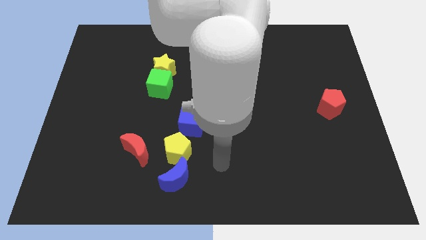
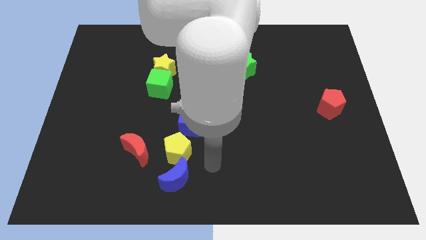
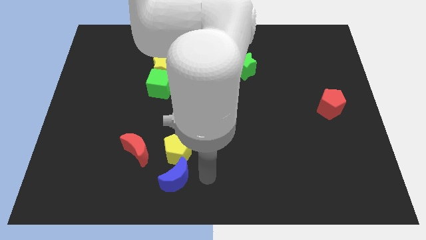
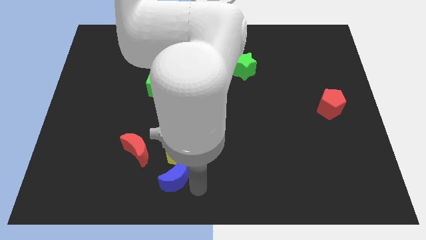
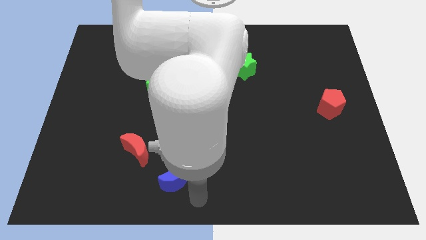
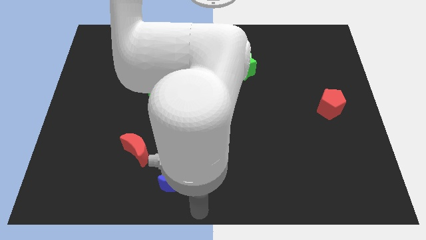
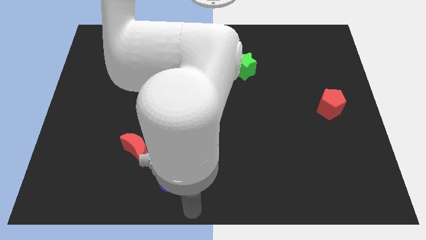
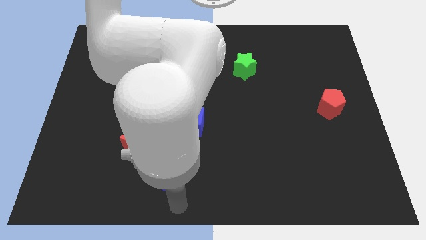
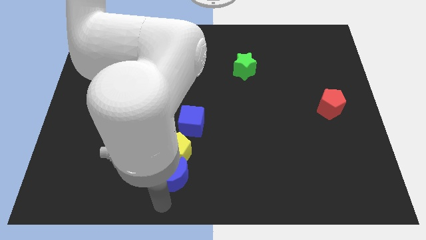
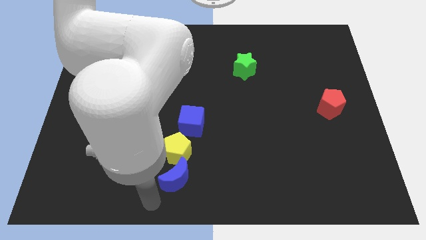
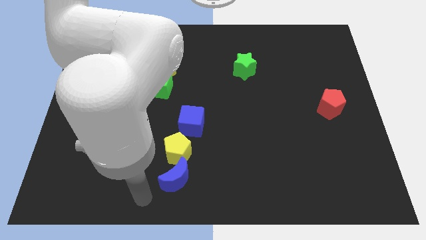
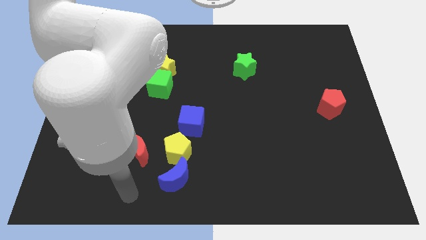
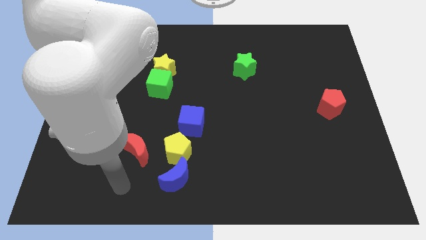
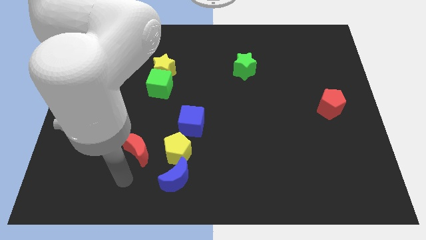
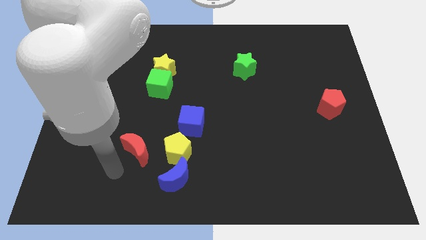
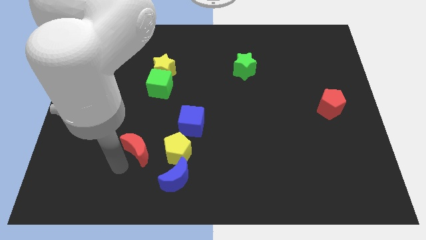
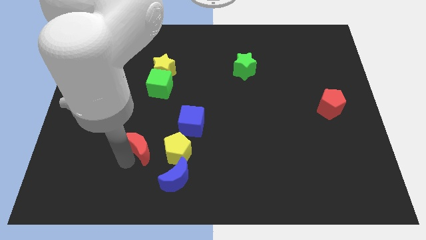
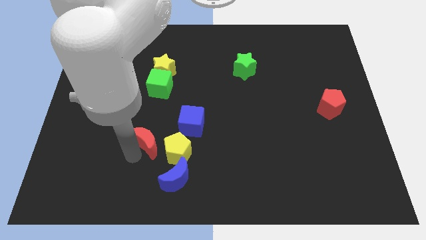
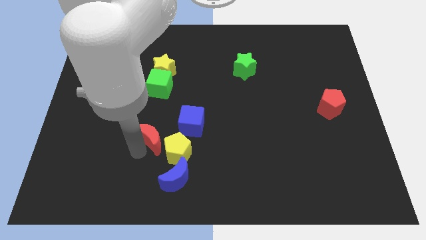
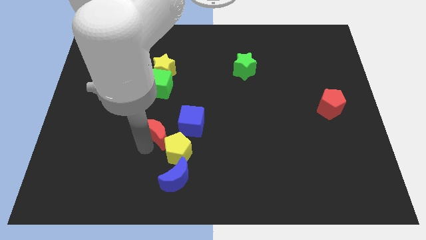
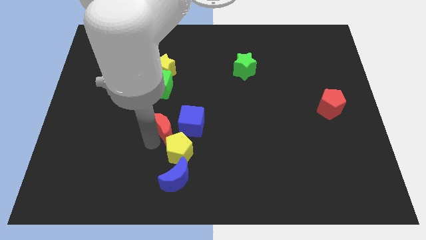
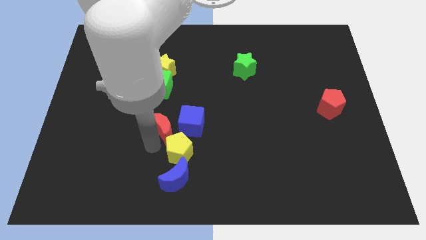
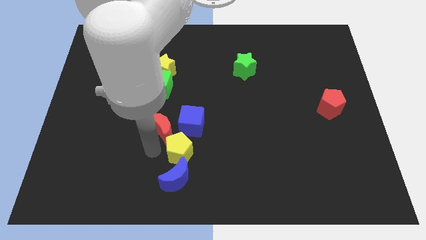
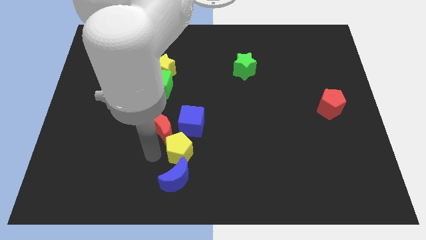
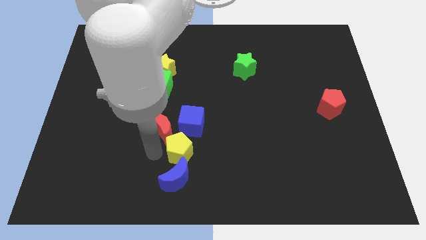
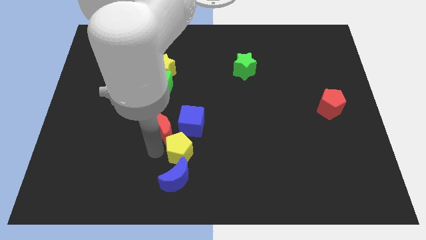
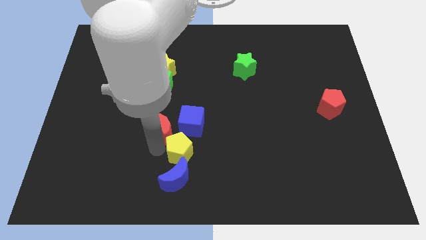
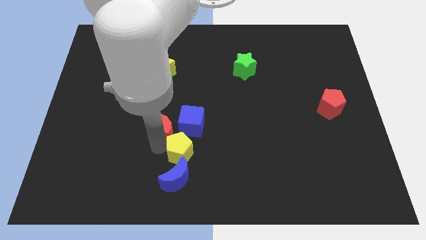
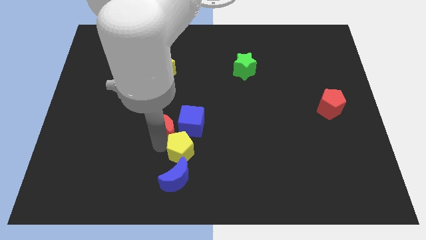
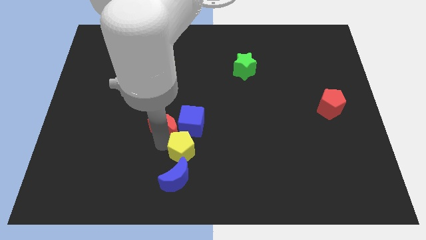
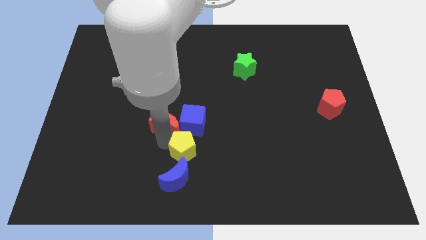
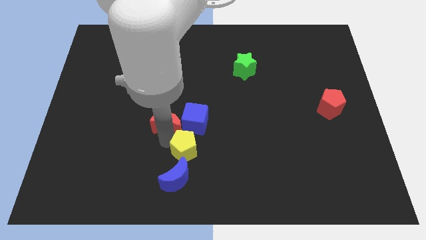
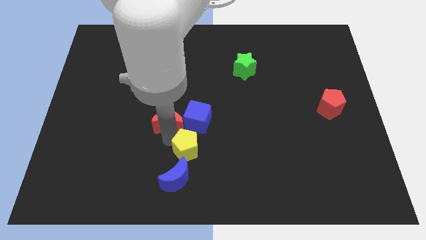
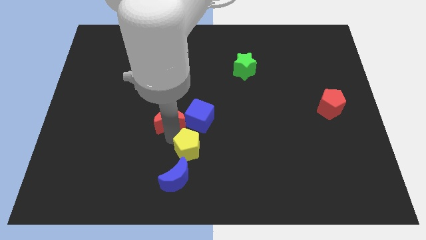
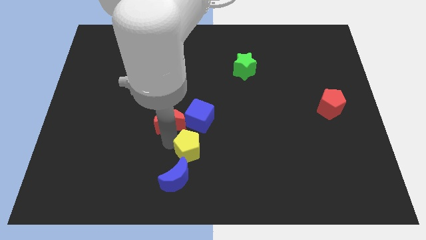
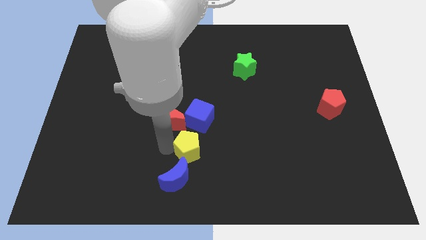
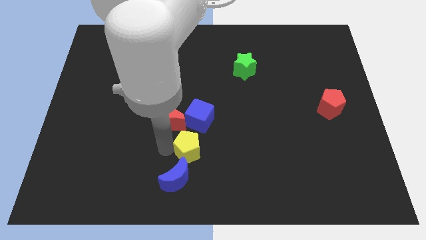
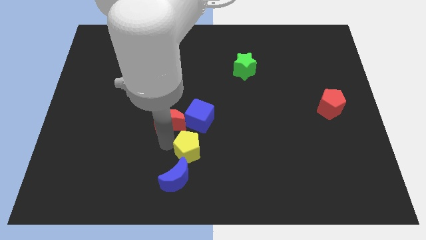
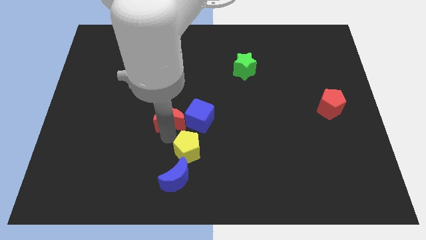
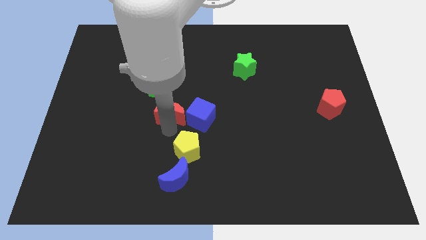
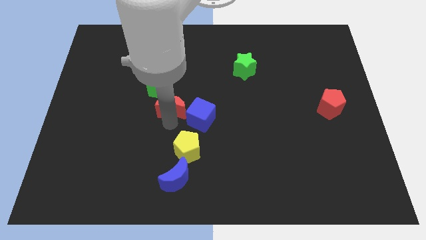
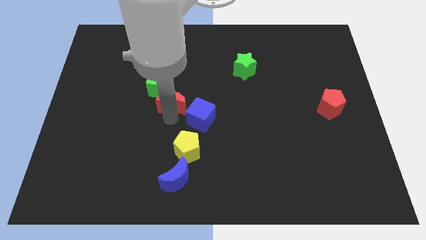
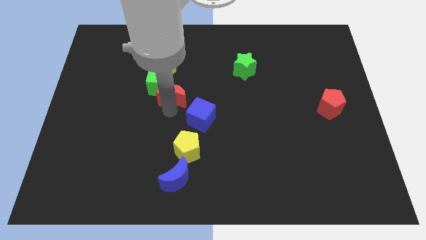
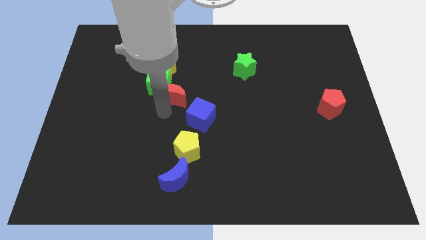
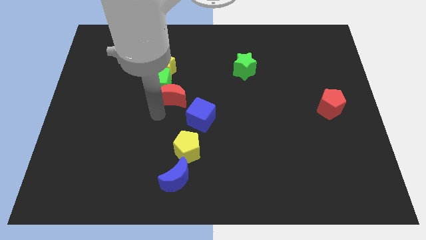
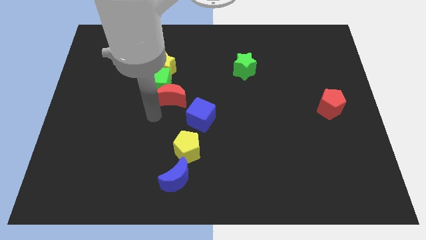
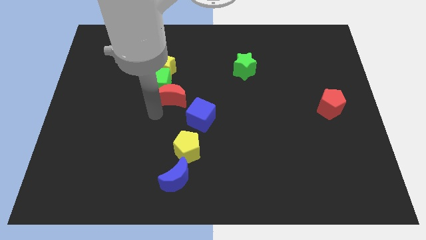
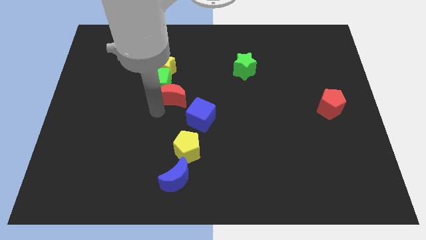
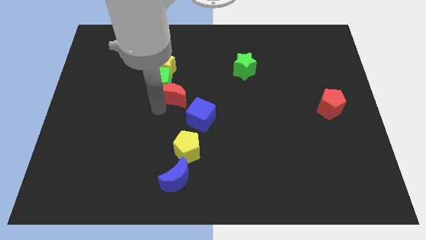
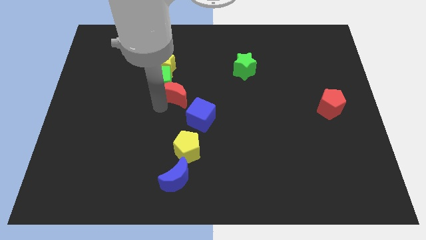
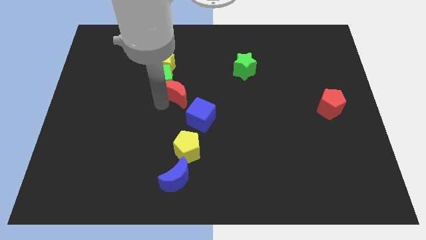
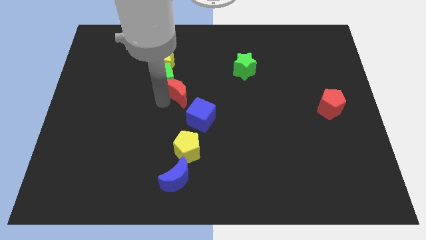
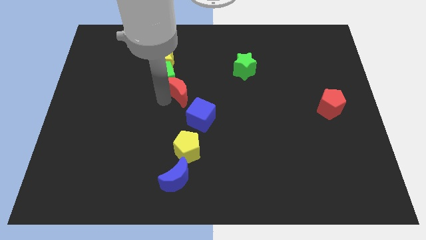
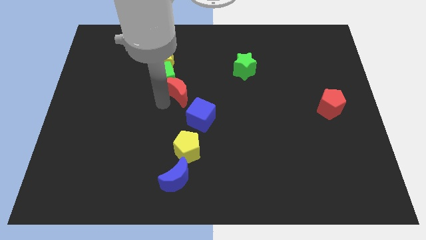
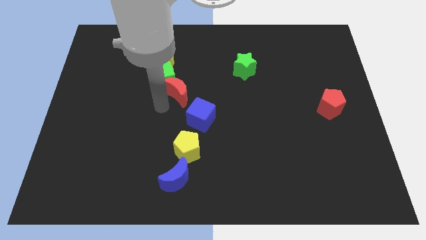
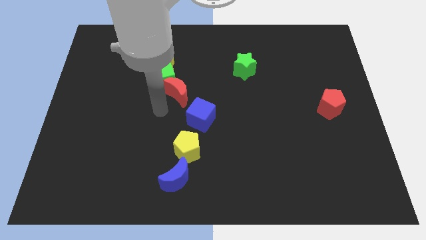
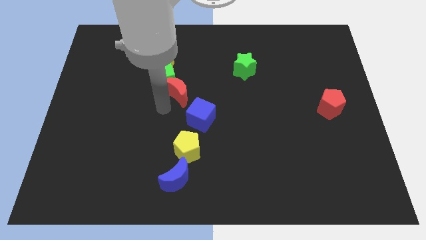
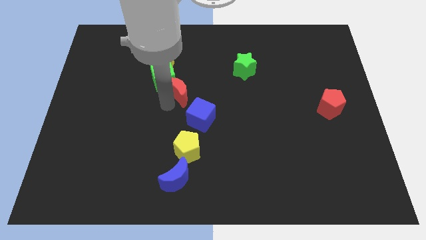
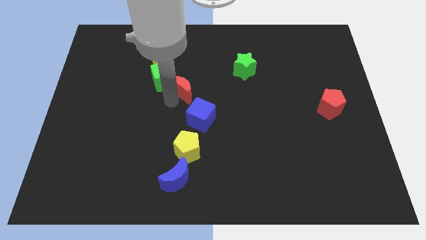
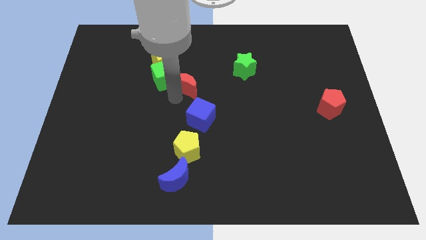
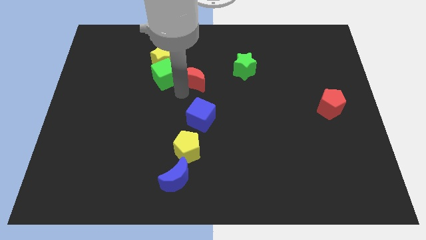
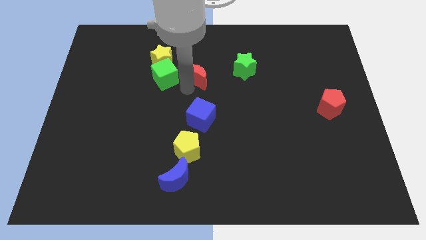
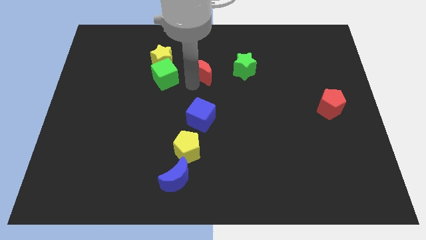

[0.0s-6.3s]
move the red moon to the right side of the yellow star

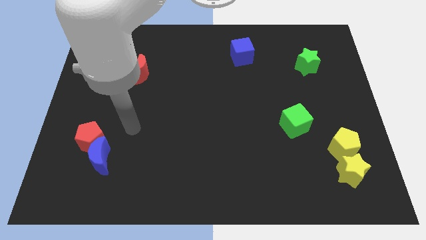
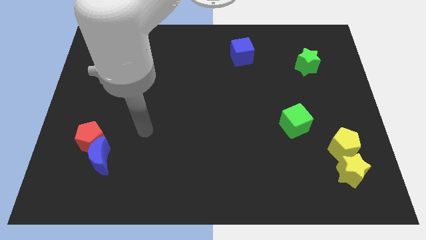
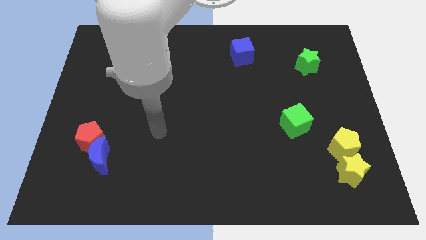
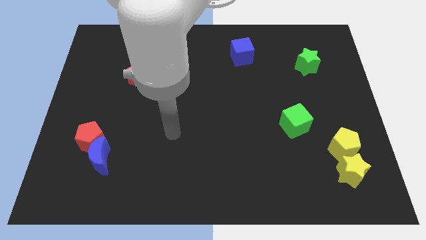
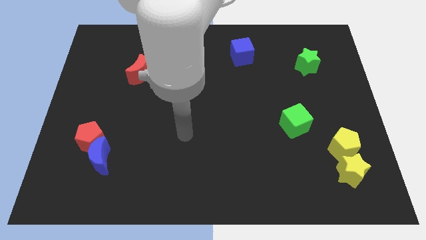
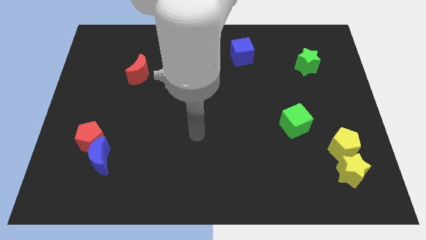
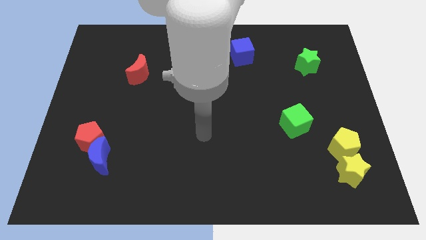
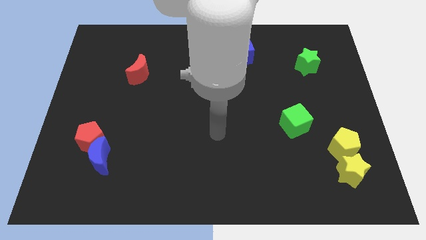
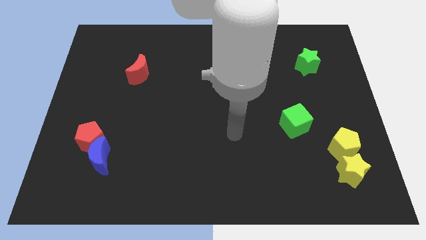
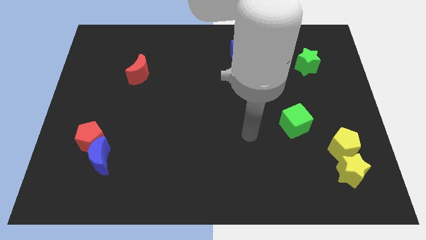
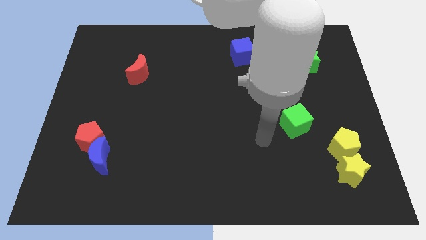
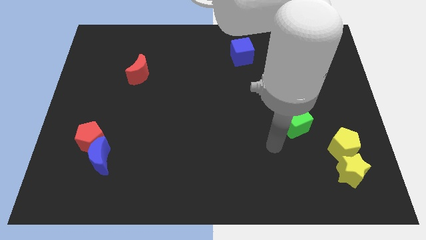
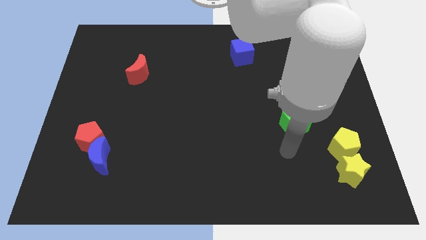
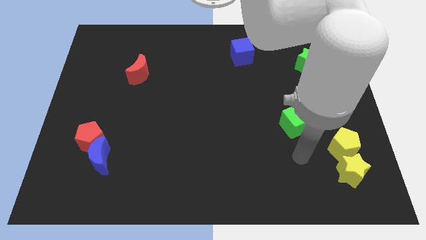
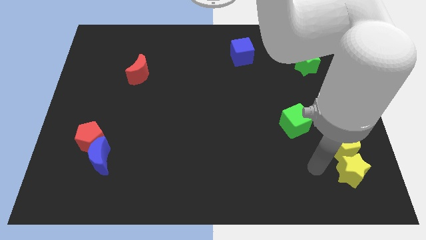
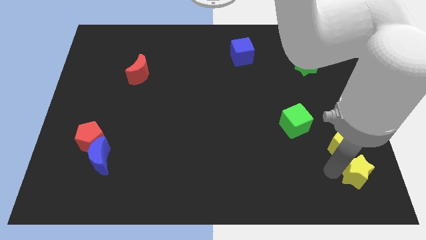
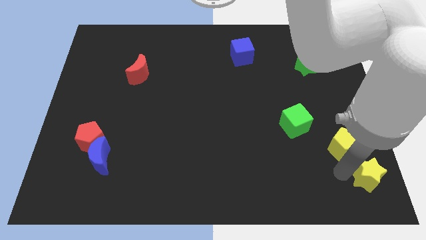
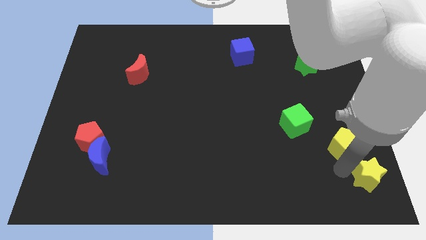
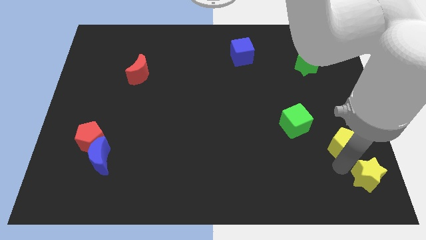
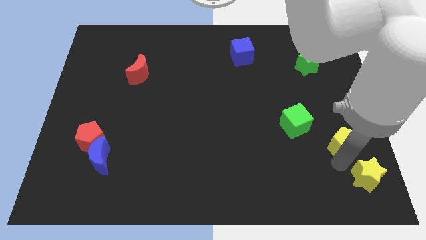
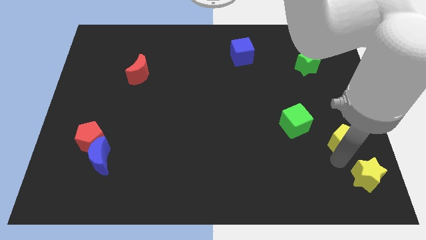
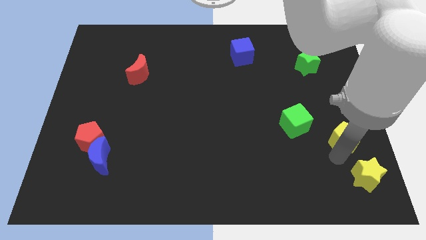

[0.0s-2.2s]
push the yellow pentagon just right of the green cube
